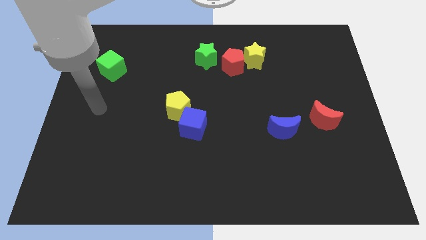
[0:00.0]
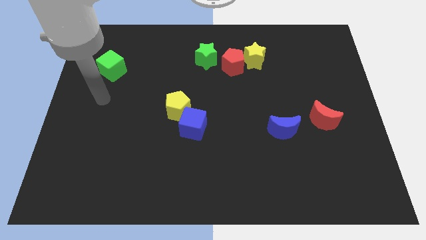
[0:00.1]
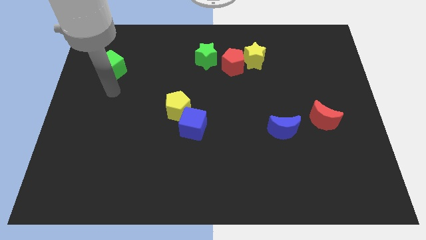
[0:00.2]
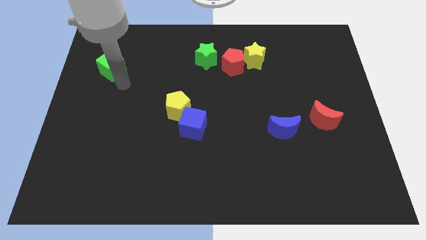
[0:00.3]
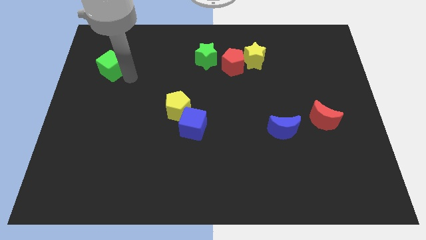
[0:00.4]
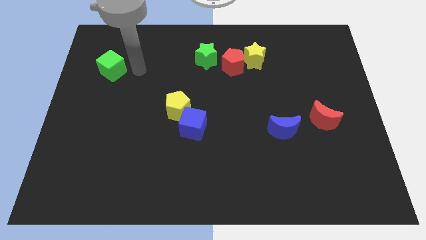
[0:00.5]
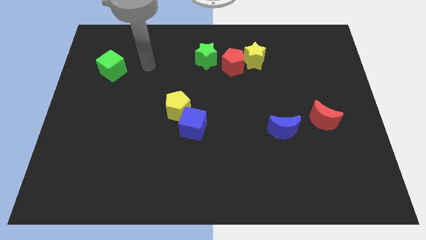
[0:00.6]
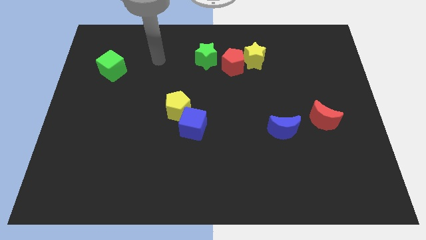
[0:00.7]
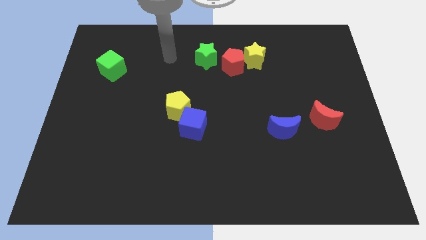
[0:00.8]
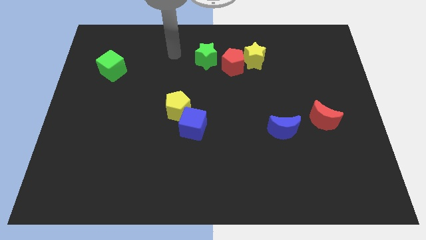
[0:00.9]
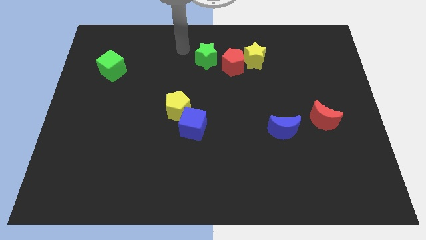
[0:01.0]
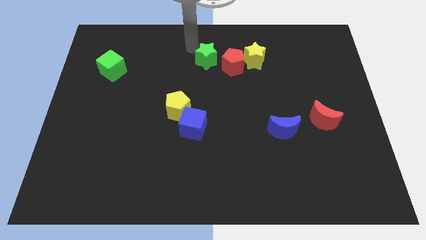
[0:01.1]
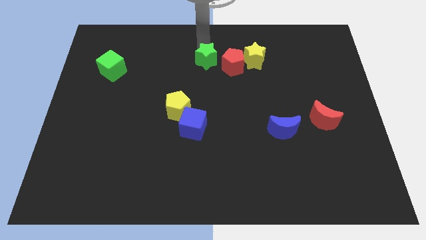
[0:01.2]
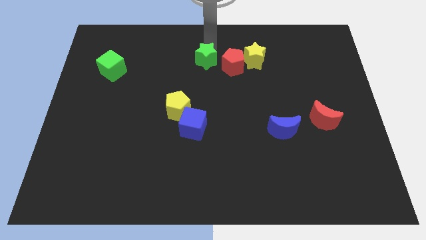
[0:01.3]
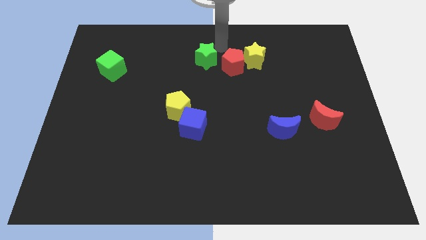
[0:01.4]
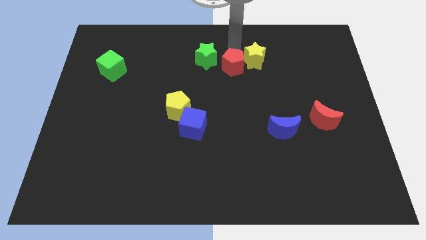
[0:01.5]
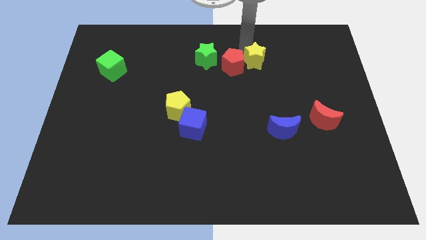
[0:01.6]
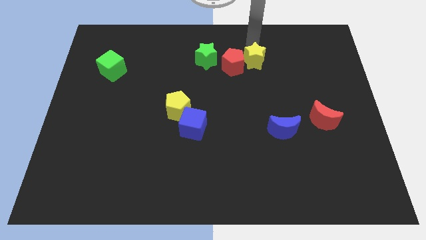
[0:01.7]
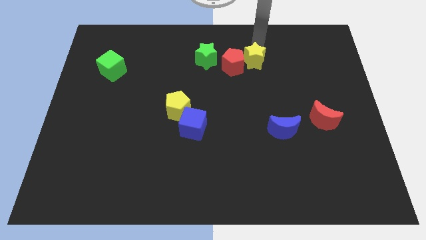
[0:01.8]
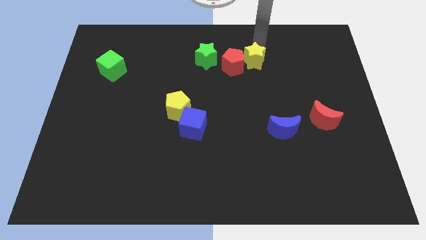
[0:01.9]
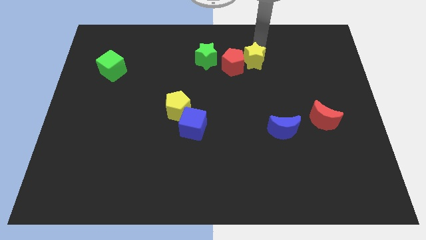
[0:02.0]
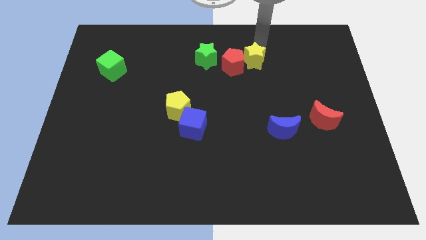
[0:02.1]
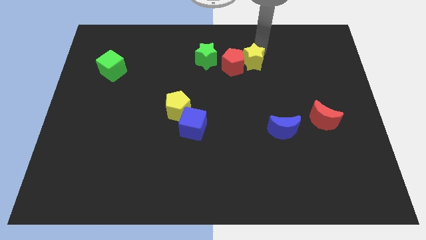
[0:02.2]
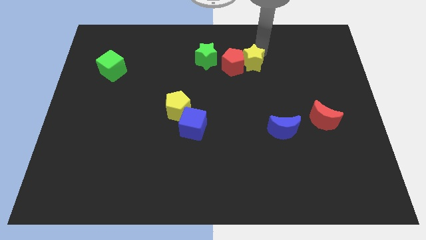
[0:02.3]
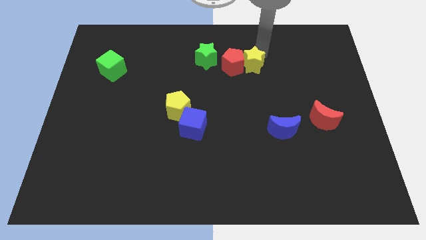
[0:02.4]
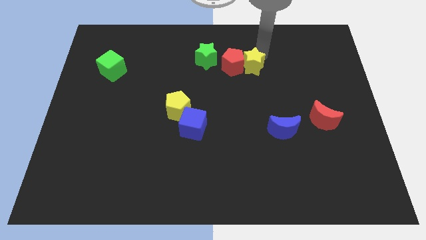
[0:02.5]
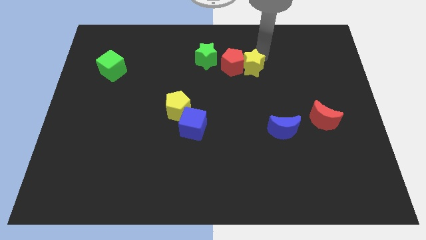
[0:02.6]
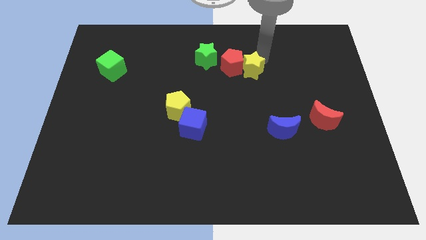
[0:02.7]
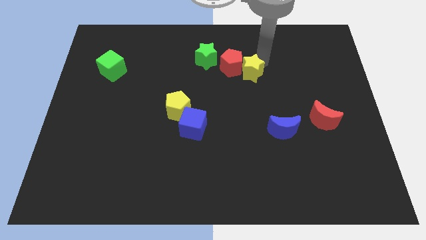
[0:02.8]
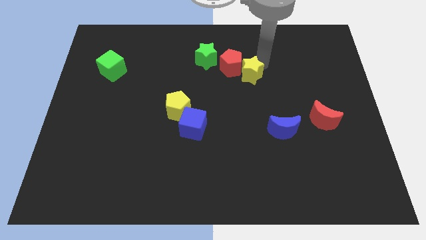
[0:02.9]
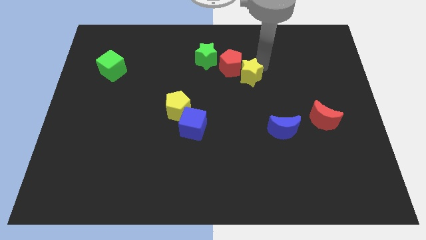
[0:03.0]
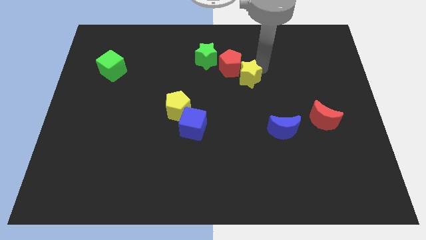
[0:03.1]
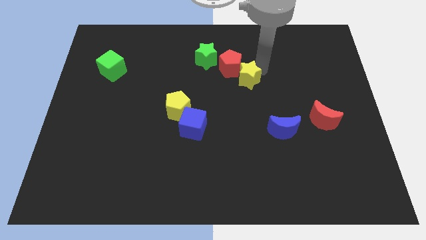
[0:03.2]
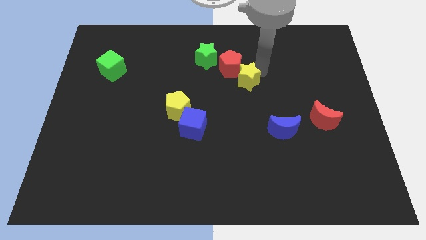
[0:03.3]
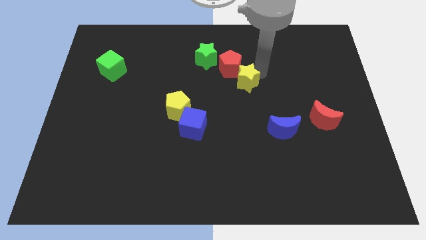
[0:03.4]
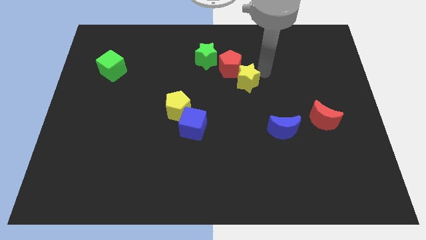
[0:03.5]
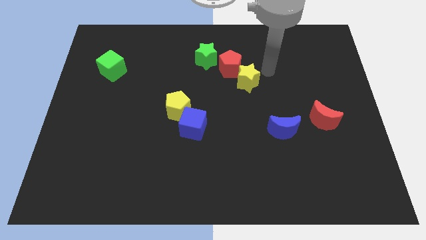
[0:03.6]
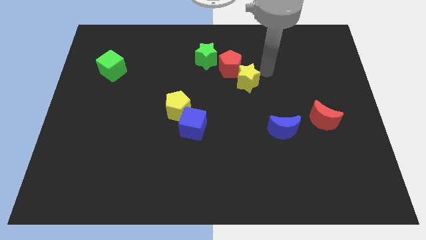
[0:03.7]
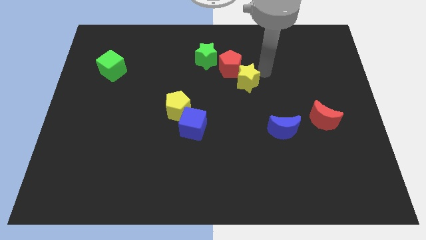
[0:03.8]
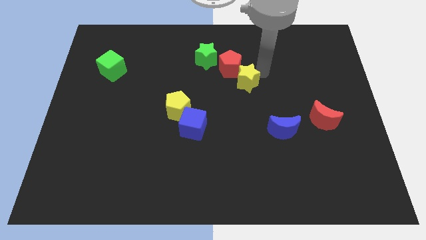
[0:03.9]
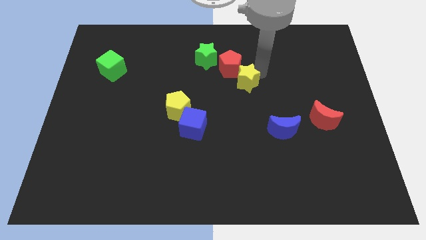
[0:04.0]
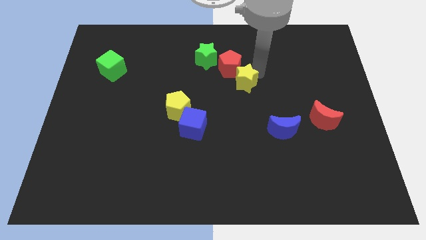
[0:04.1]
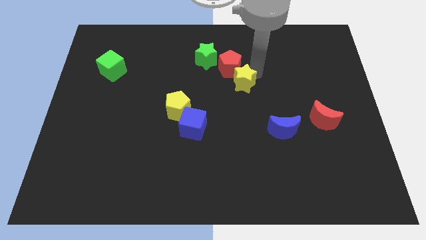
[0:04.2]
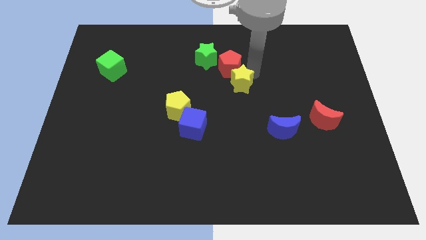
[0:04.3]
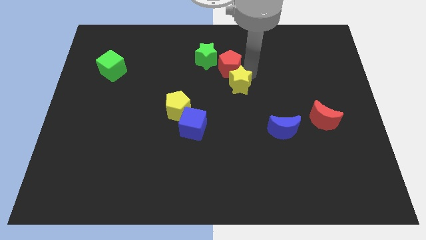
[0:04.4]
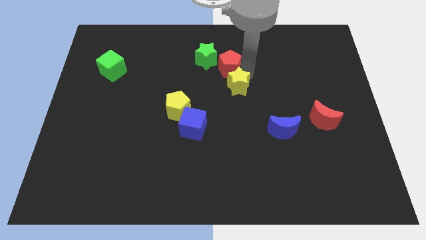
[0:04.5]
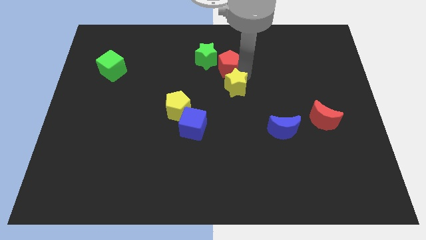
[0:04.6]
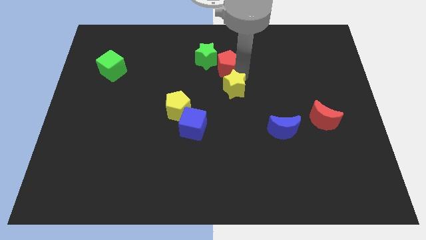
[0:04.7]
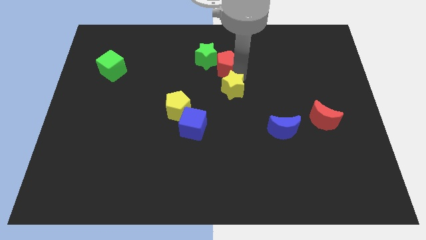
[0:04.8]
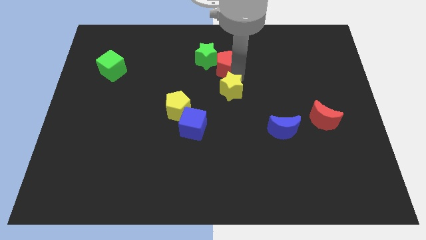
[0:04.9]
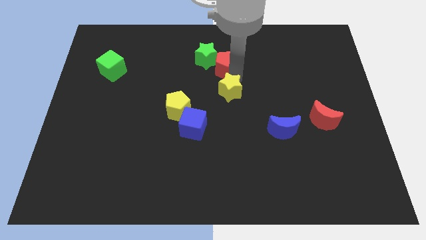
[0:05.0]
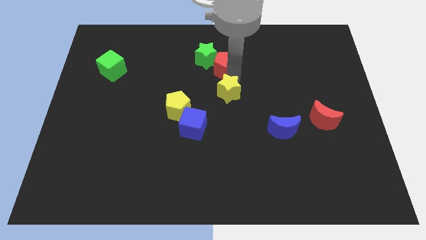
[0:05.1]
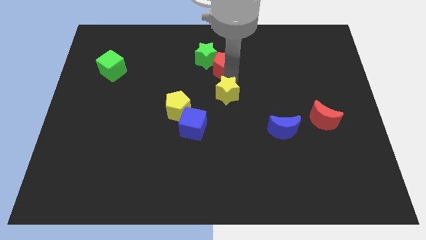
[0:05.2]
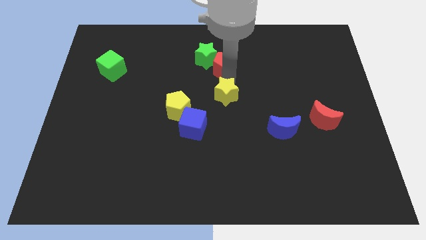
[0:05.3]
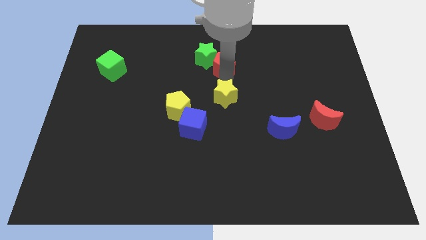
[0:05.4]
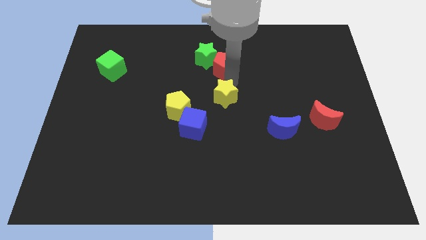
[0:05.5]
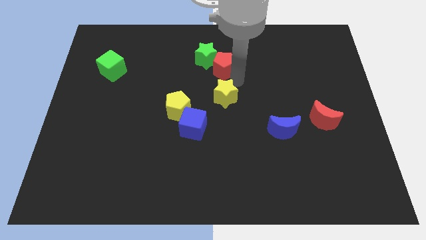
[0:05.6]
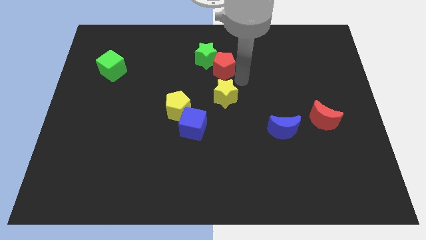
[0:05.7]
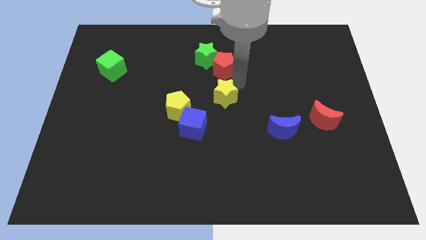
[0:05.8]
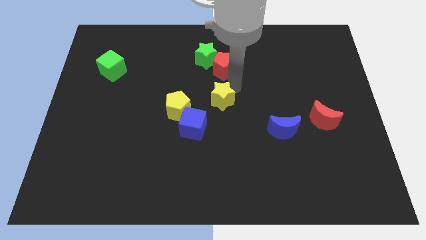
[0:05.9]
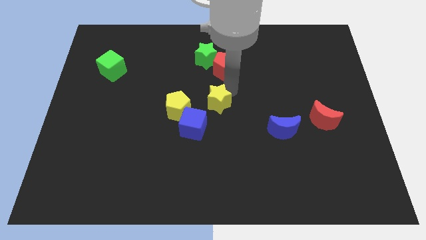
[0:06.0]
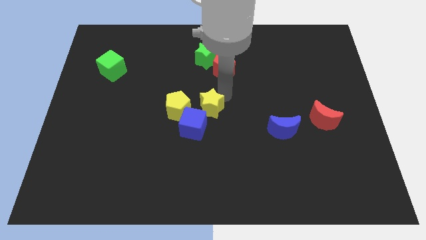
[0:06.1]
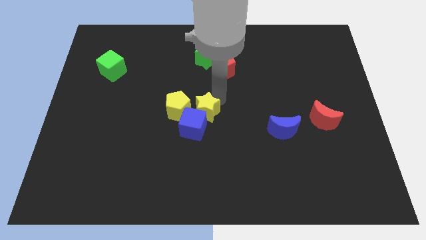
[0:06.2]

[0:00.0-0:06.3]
push the yellow star close to the blue cube

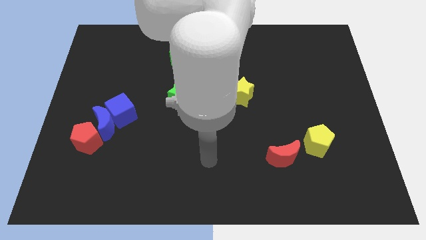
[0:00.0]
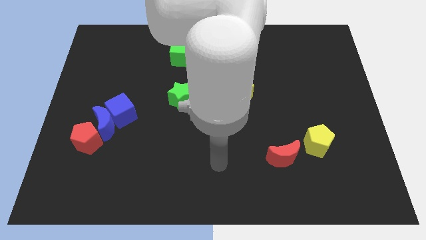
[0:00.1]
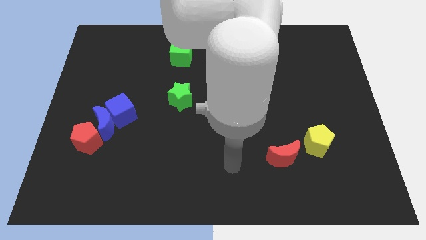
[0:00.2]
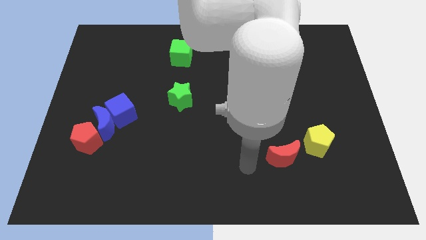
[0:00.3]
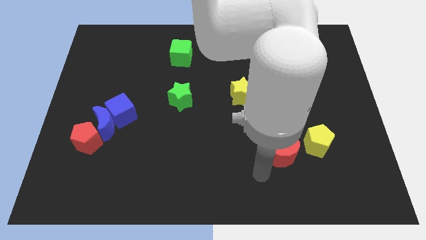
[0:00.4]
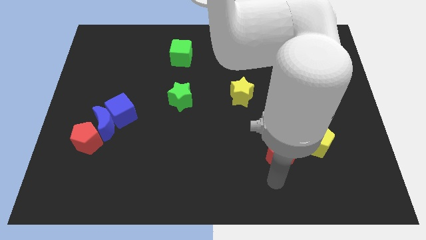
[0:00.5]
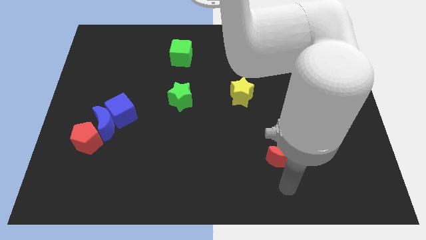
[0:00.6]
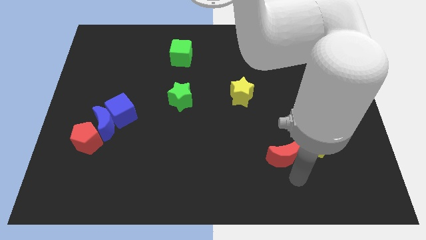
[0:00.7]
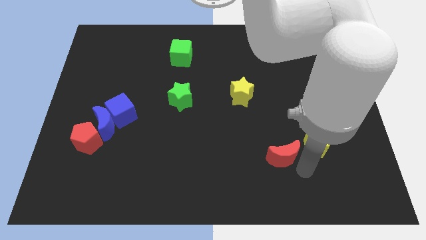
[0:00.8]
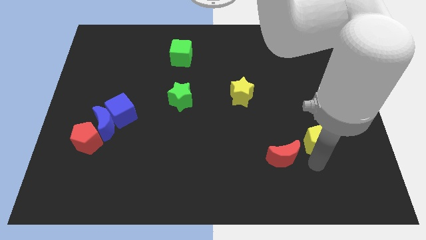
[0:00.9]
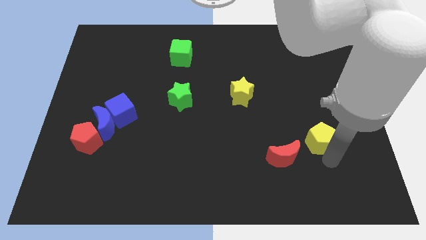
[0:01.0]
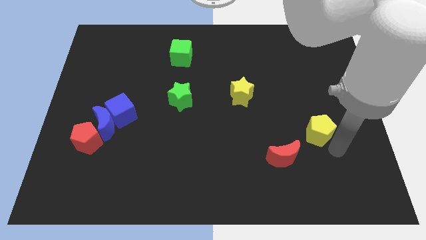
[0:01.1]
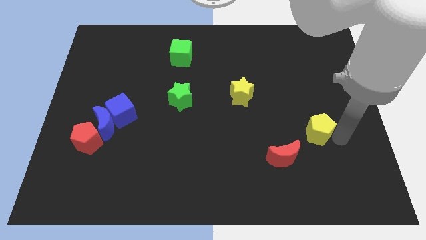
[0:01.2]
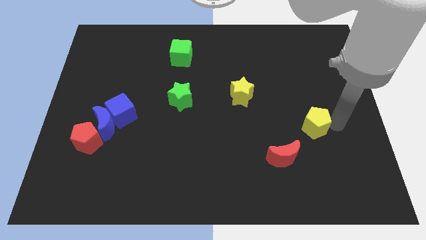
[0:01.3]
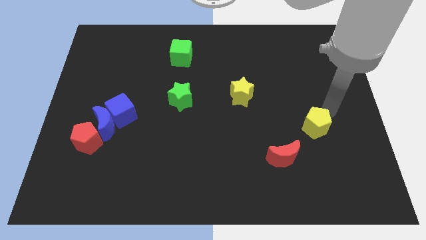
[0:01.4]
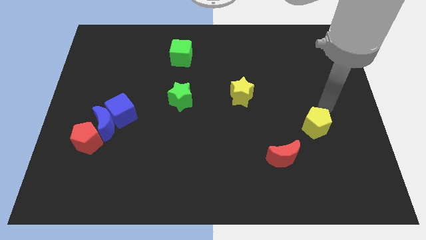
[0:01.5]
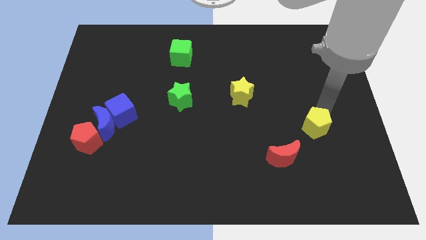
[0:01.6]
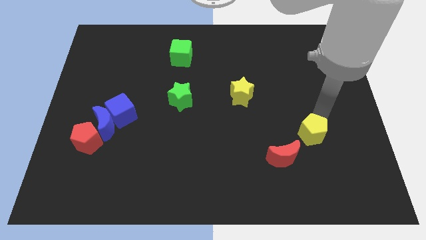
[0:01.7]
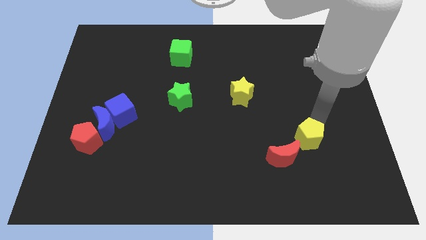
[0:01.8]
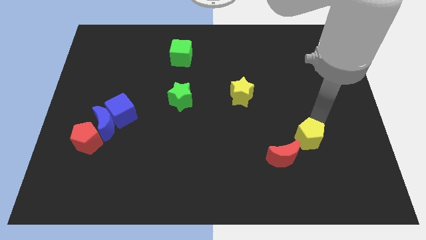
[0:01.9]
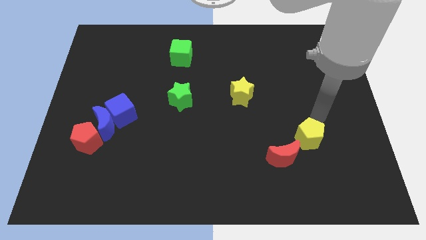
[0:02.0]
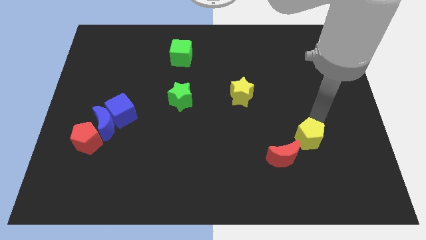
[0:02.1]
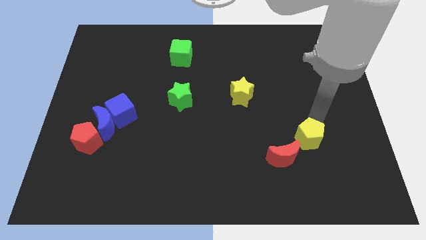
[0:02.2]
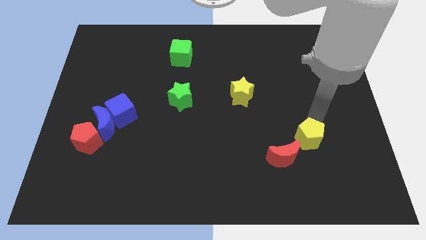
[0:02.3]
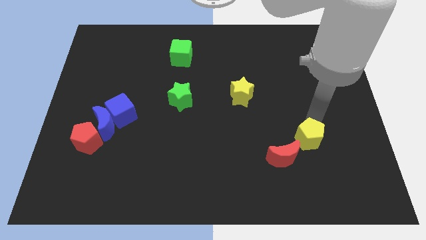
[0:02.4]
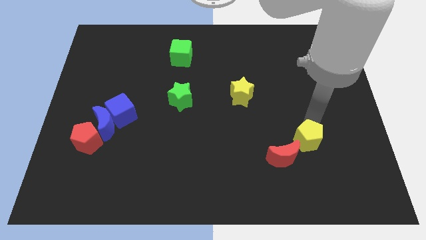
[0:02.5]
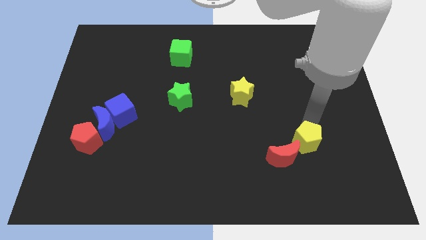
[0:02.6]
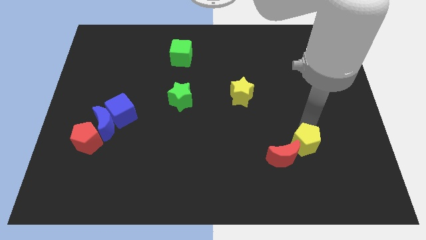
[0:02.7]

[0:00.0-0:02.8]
move the yellow pentagon close to the red moon
